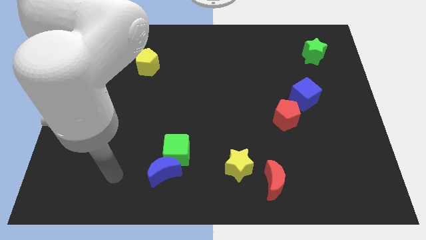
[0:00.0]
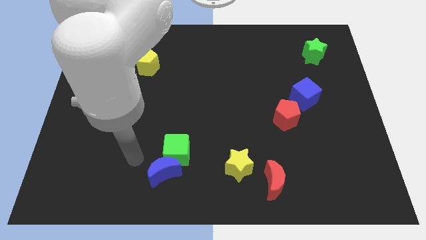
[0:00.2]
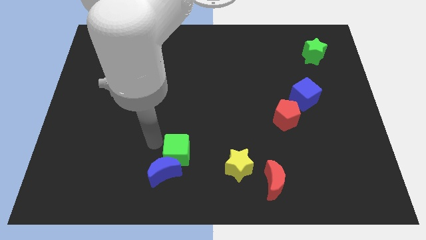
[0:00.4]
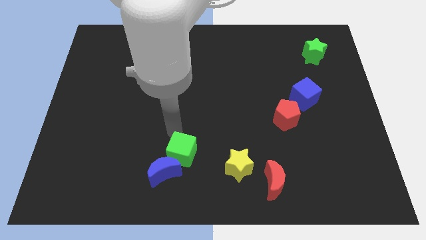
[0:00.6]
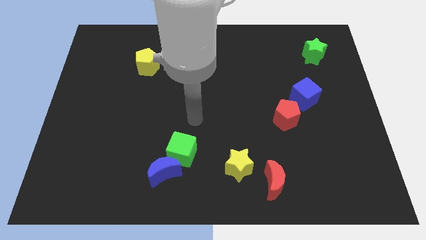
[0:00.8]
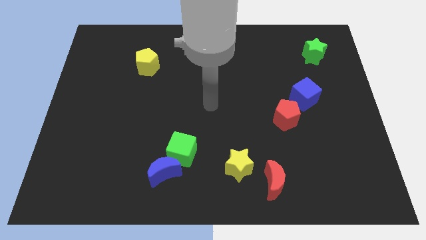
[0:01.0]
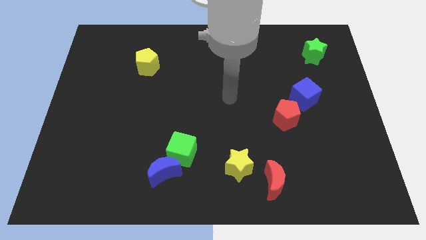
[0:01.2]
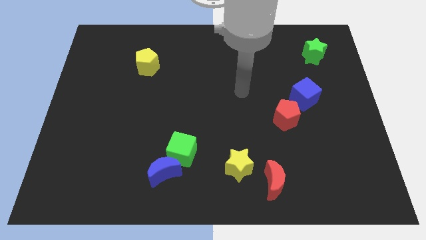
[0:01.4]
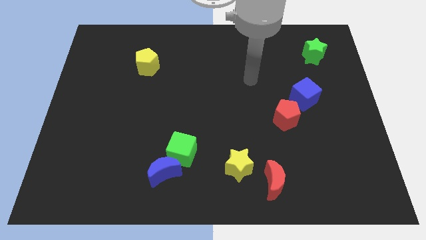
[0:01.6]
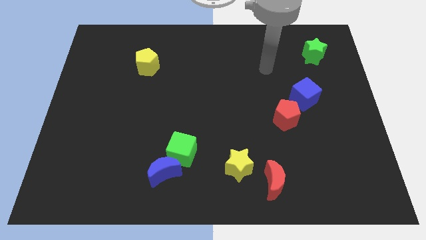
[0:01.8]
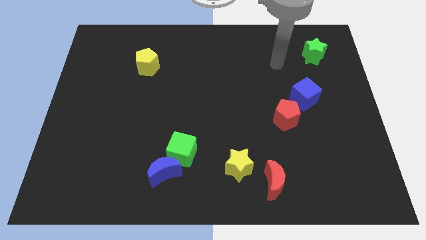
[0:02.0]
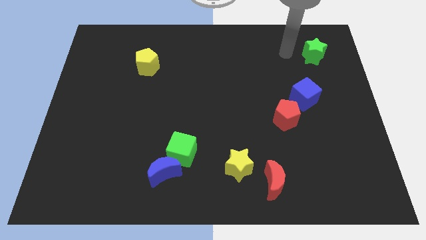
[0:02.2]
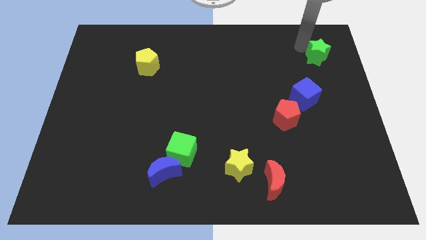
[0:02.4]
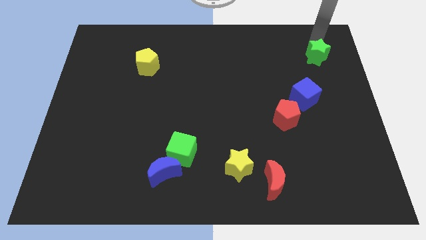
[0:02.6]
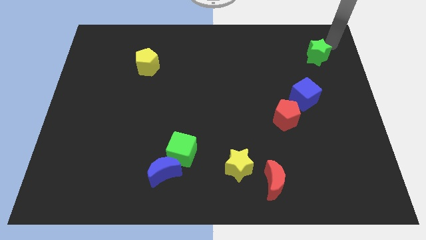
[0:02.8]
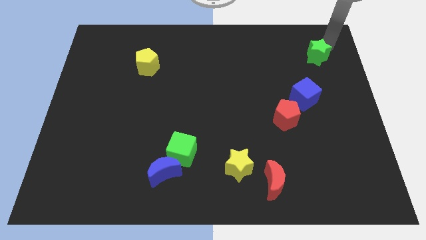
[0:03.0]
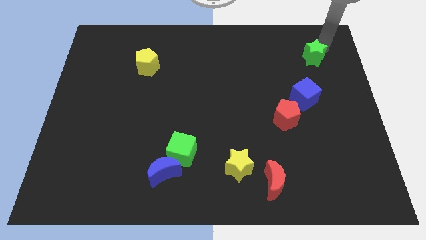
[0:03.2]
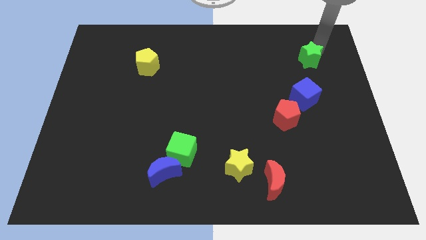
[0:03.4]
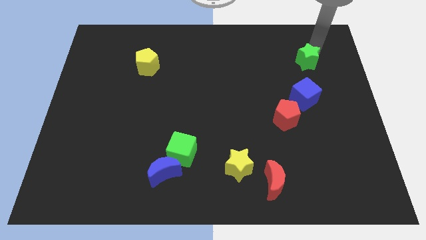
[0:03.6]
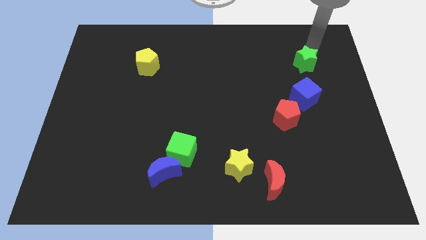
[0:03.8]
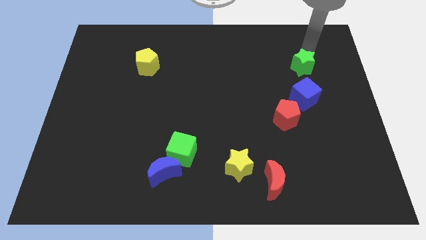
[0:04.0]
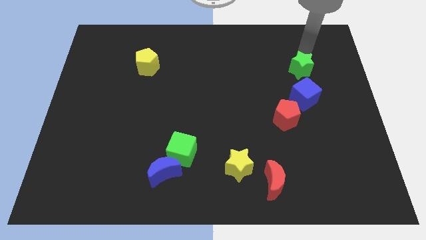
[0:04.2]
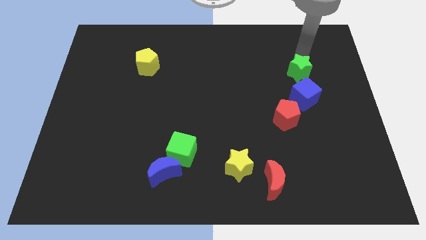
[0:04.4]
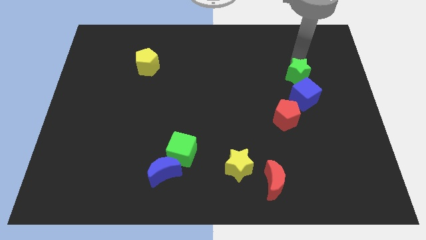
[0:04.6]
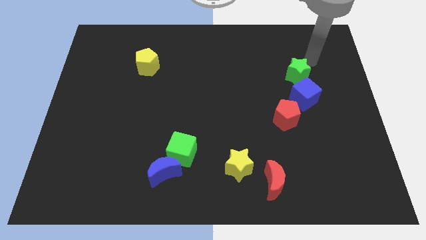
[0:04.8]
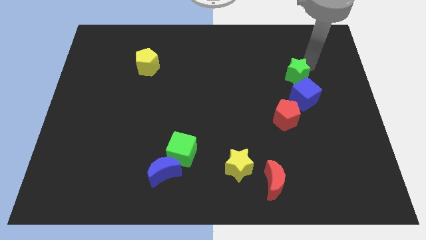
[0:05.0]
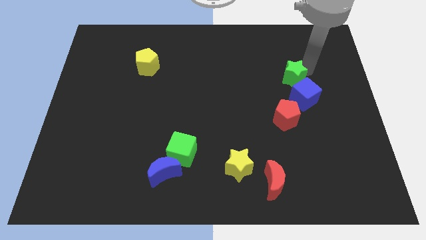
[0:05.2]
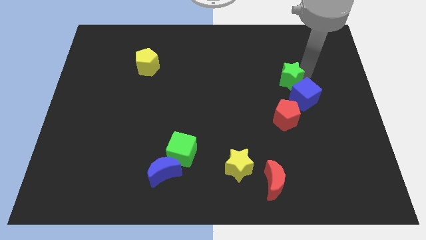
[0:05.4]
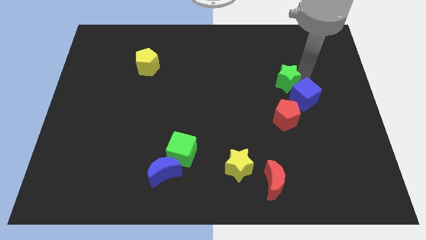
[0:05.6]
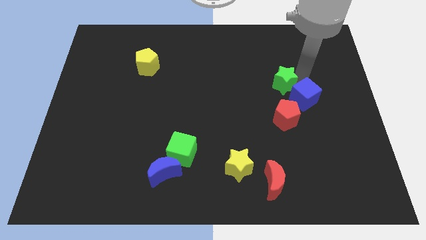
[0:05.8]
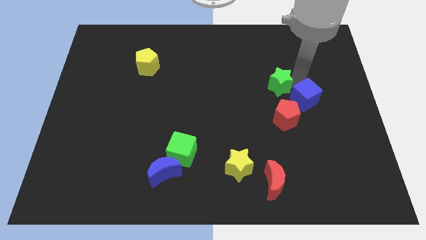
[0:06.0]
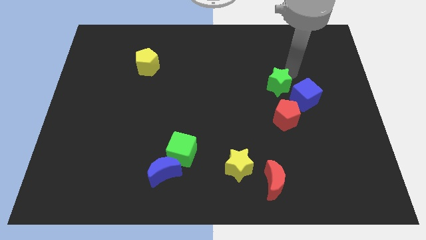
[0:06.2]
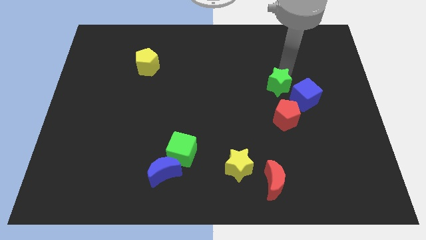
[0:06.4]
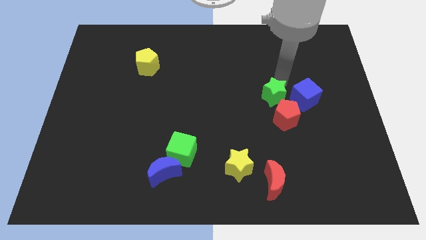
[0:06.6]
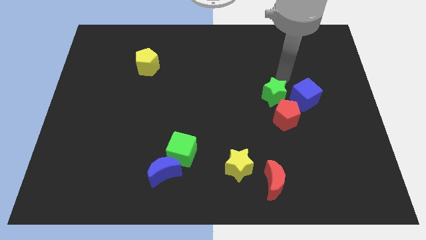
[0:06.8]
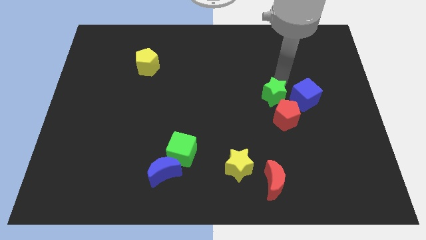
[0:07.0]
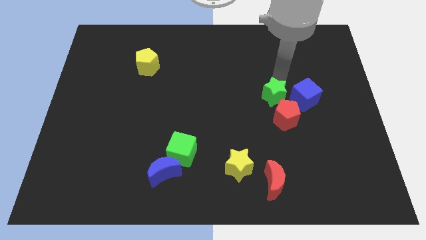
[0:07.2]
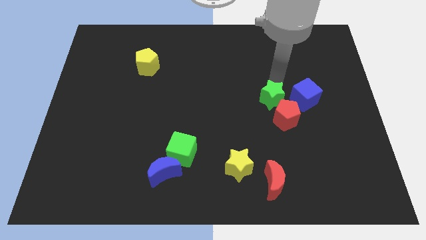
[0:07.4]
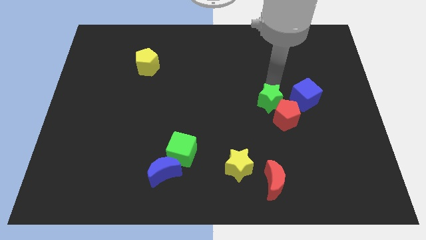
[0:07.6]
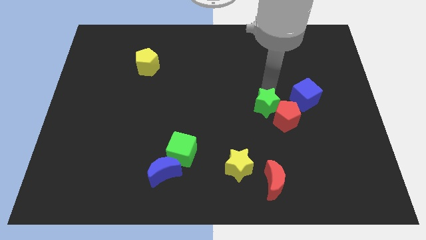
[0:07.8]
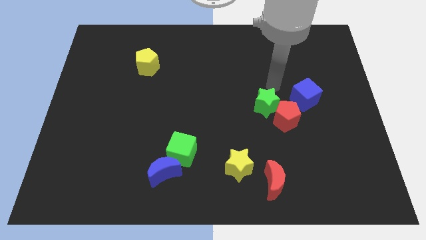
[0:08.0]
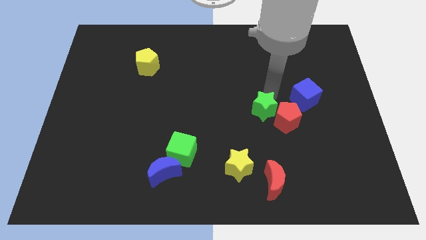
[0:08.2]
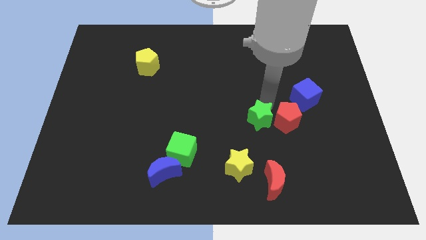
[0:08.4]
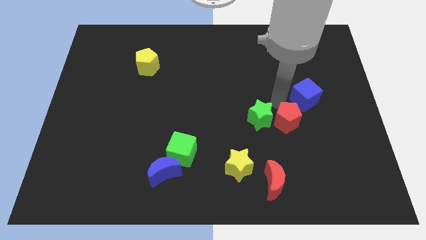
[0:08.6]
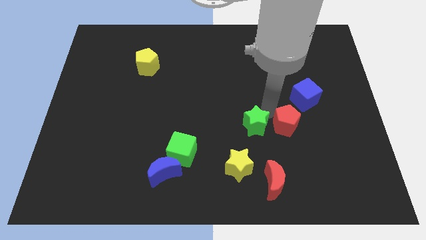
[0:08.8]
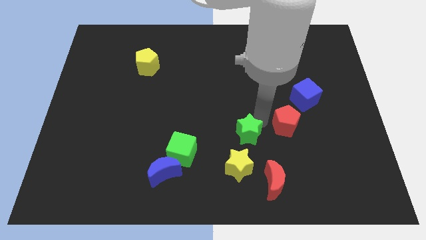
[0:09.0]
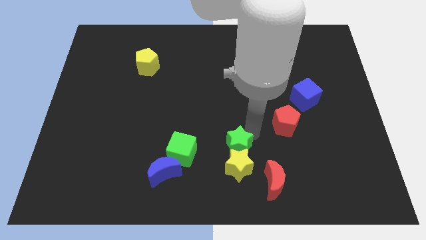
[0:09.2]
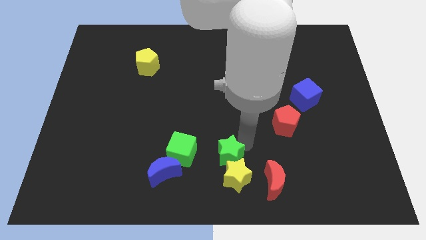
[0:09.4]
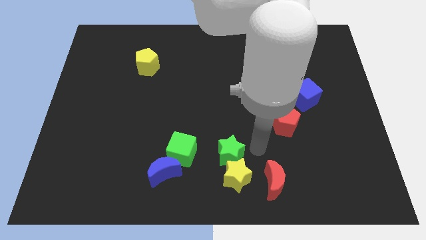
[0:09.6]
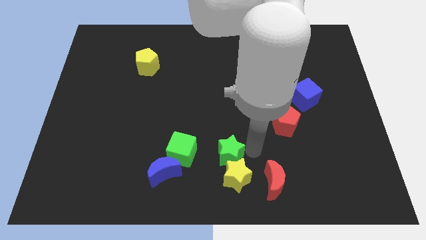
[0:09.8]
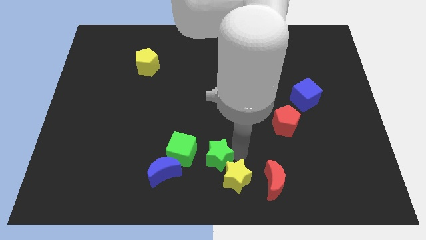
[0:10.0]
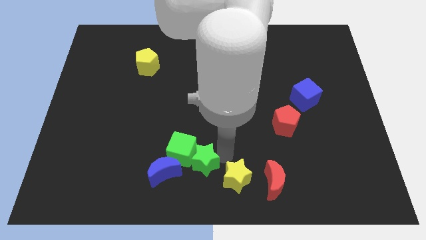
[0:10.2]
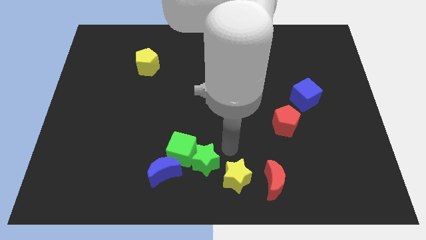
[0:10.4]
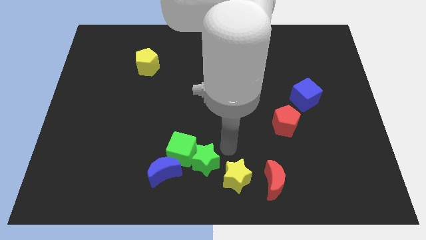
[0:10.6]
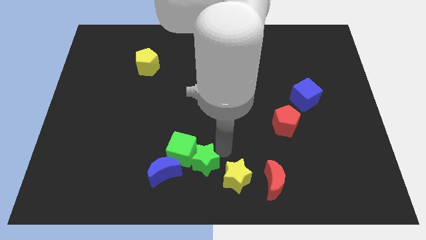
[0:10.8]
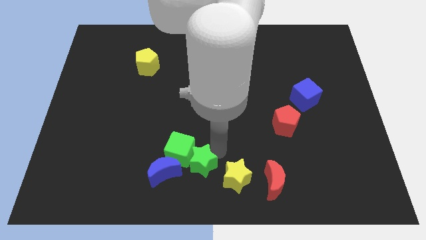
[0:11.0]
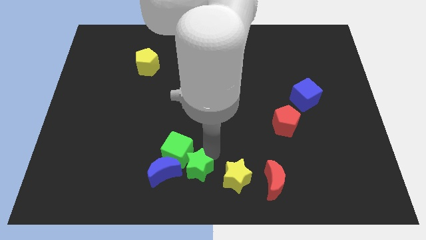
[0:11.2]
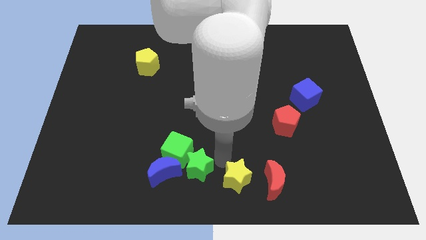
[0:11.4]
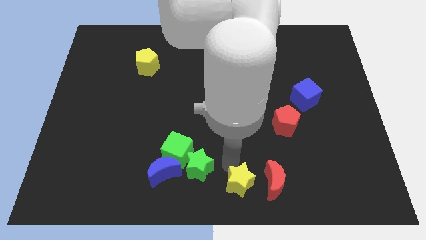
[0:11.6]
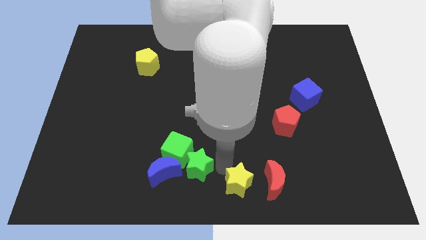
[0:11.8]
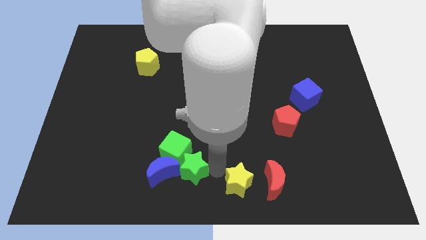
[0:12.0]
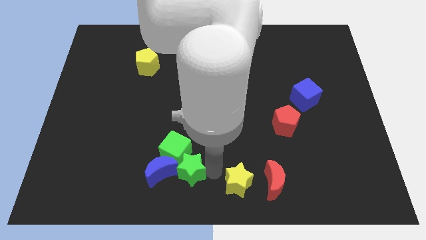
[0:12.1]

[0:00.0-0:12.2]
move the green star close to the blue moon

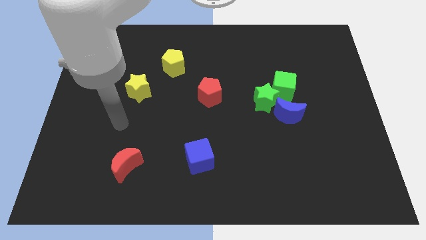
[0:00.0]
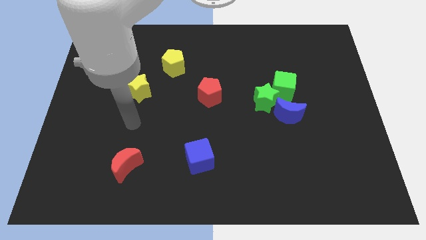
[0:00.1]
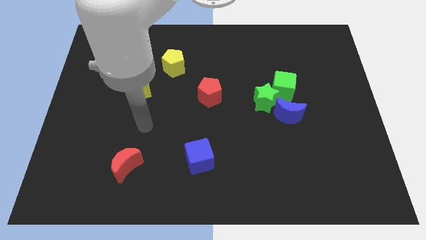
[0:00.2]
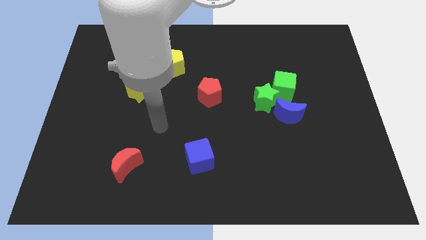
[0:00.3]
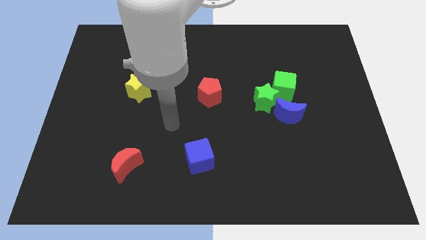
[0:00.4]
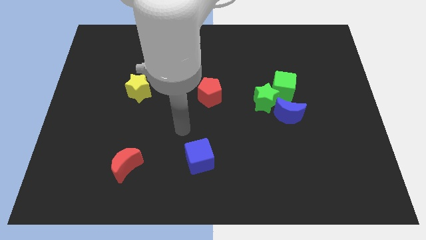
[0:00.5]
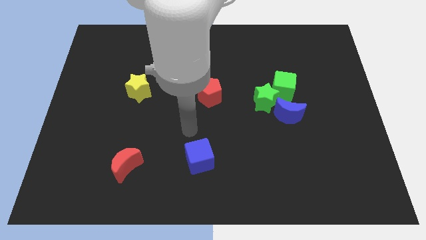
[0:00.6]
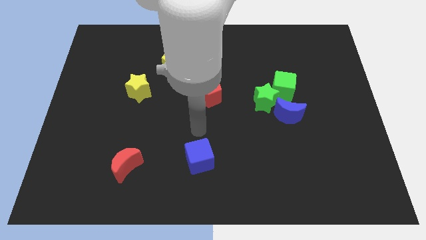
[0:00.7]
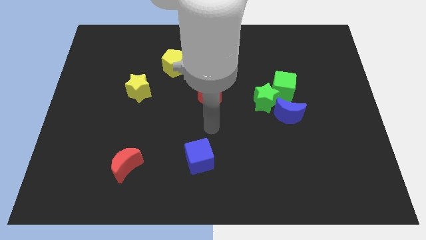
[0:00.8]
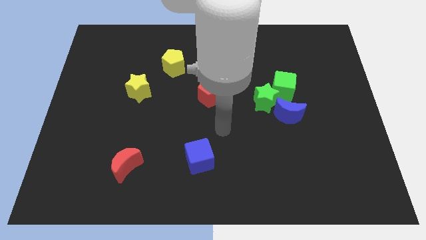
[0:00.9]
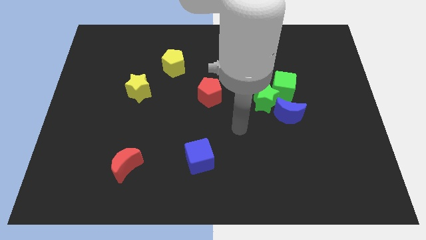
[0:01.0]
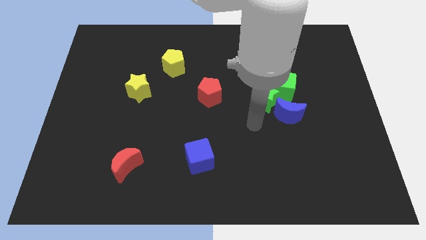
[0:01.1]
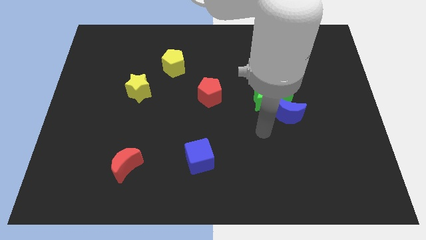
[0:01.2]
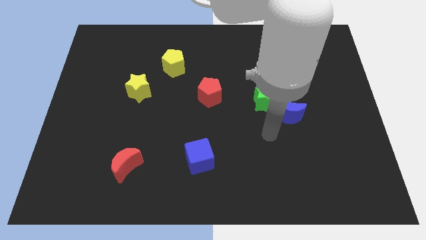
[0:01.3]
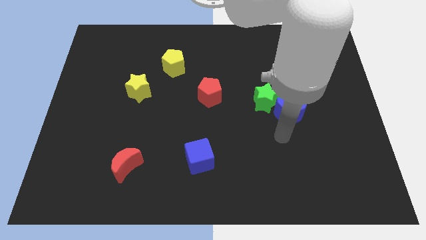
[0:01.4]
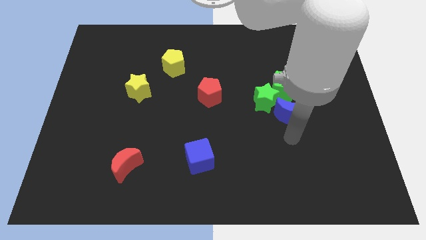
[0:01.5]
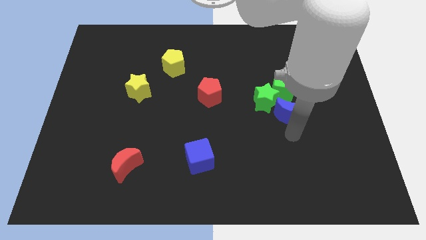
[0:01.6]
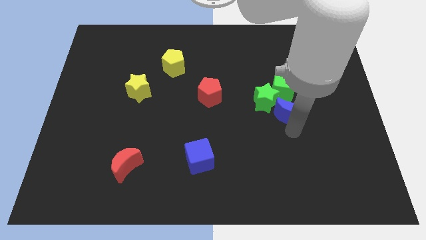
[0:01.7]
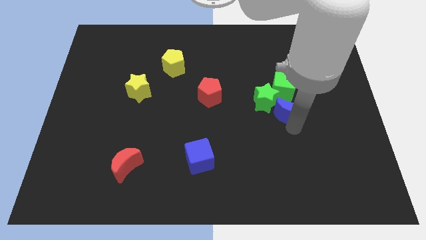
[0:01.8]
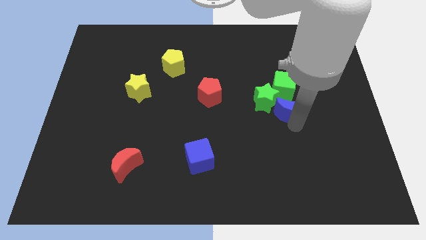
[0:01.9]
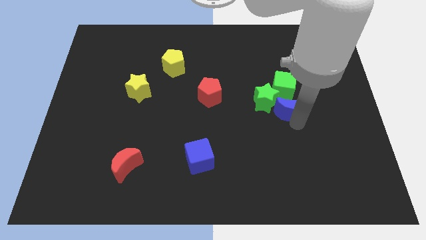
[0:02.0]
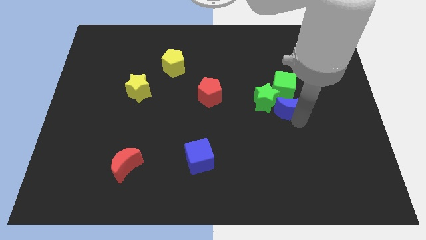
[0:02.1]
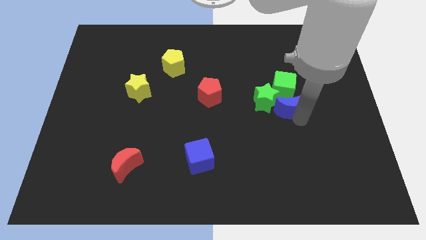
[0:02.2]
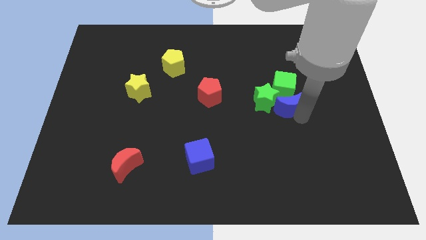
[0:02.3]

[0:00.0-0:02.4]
slide the blue moon to the green cube
